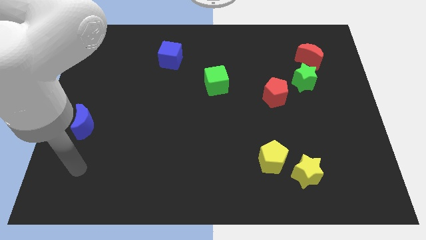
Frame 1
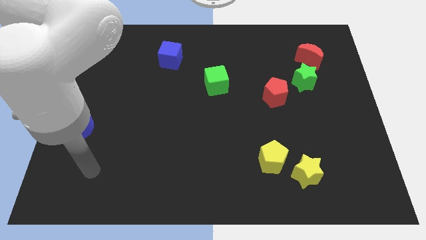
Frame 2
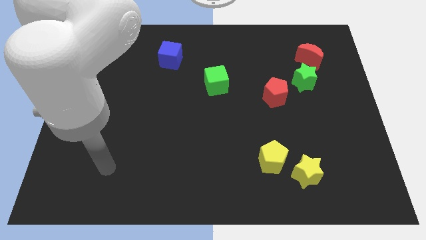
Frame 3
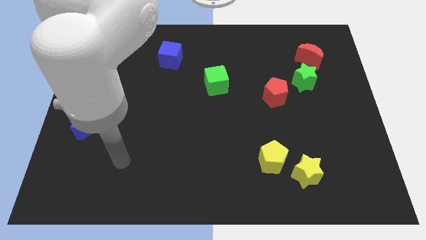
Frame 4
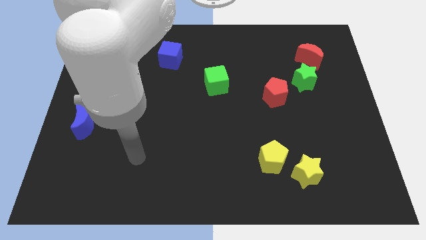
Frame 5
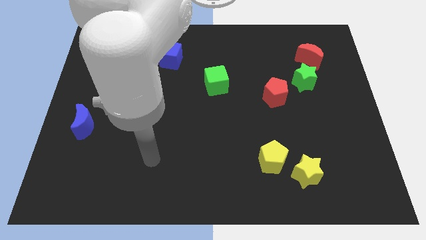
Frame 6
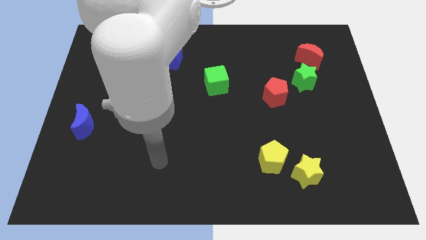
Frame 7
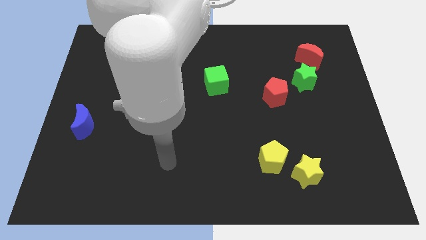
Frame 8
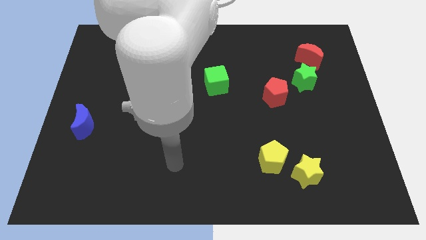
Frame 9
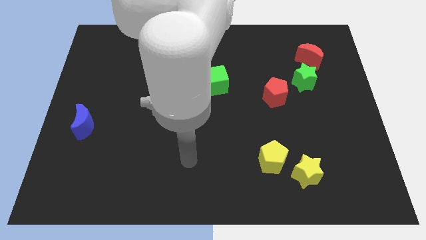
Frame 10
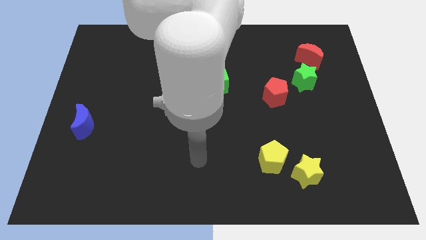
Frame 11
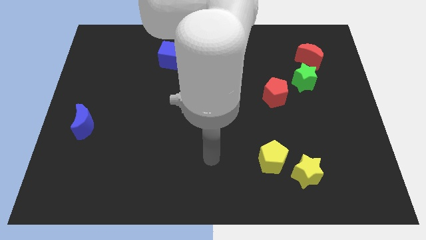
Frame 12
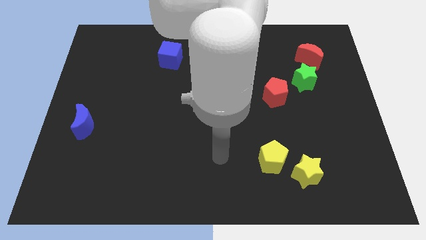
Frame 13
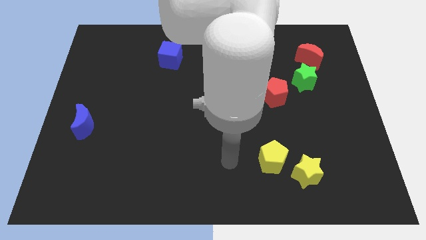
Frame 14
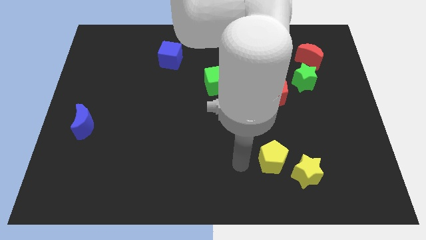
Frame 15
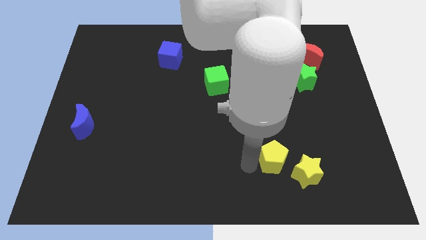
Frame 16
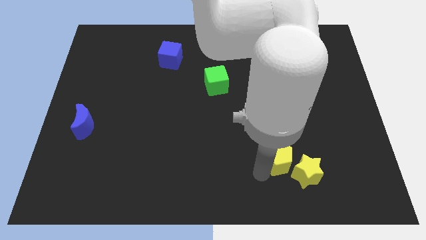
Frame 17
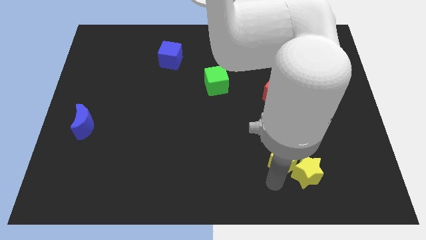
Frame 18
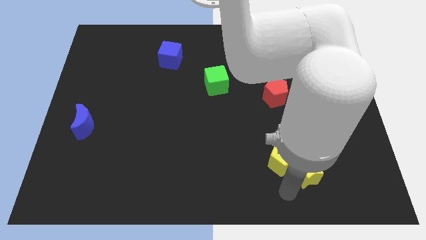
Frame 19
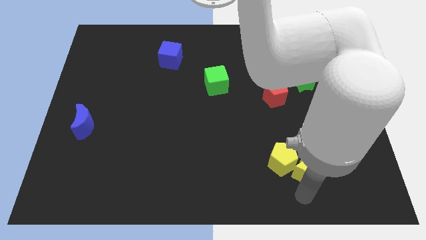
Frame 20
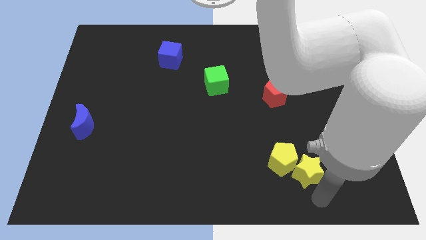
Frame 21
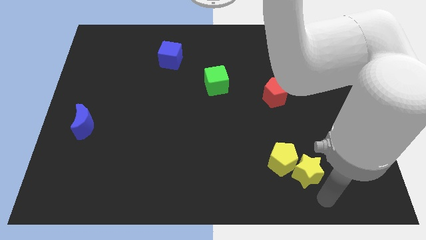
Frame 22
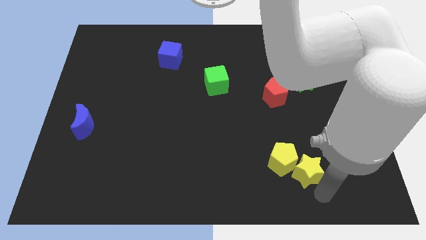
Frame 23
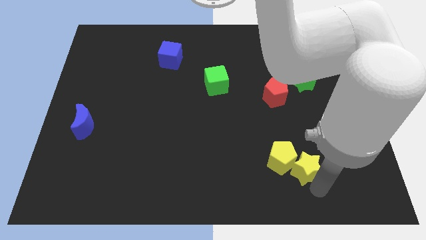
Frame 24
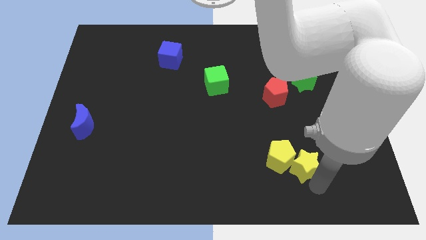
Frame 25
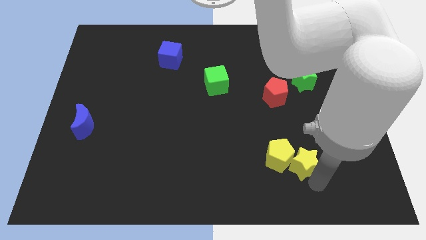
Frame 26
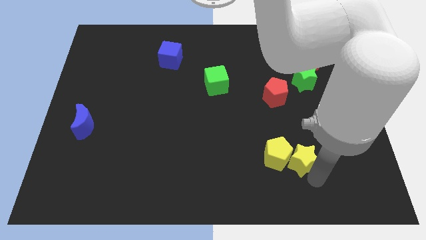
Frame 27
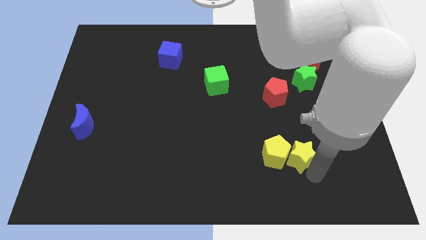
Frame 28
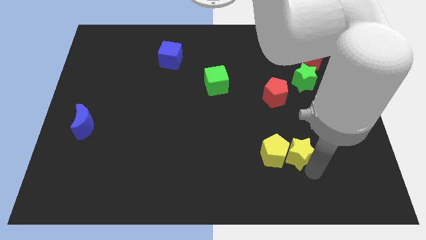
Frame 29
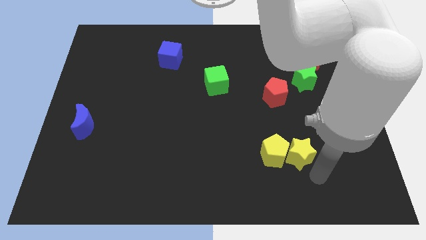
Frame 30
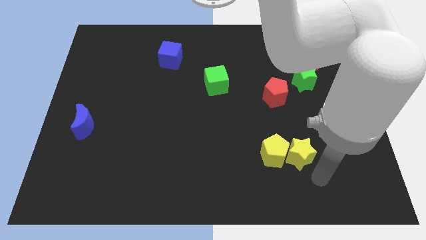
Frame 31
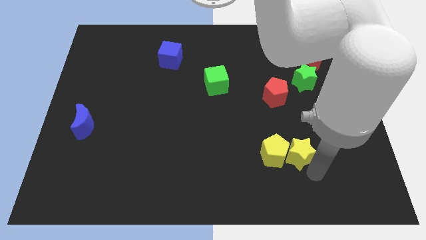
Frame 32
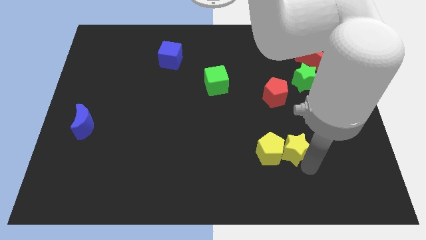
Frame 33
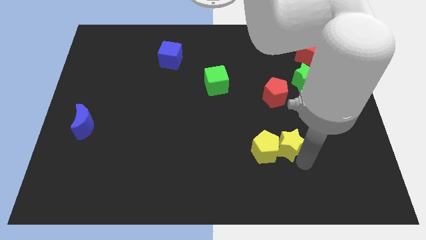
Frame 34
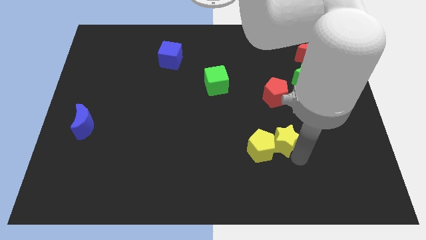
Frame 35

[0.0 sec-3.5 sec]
slide the yellow star up and to the left somewhat

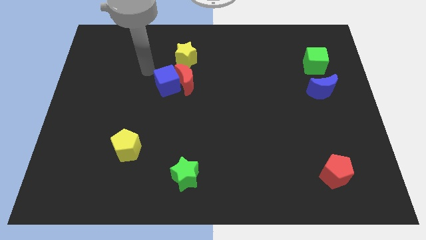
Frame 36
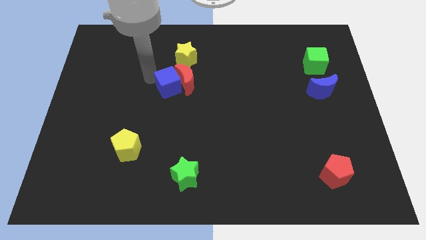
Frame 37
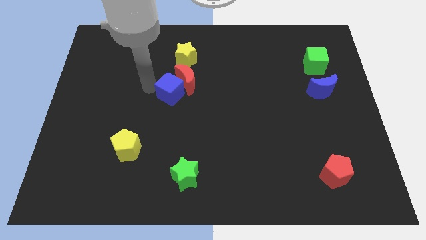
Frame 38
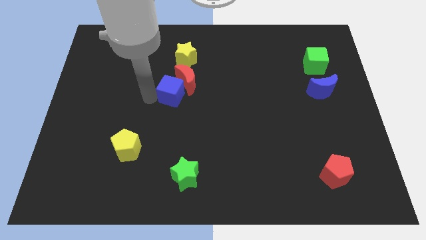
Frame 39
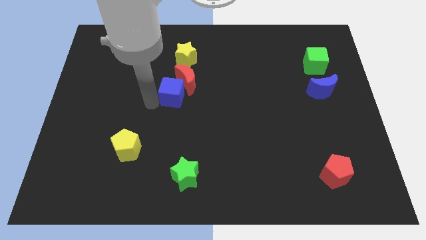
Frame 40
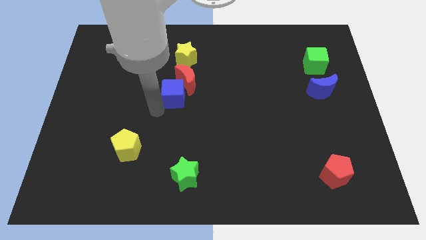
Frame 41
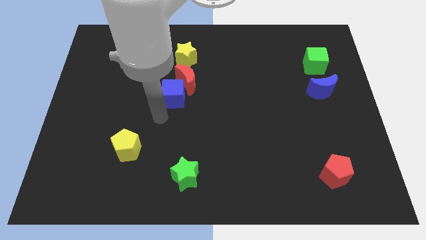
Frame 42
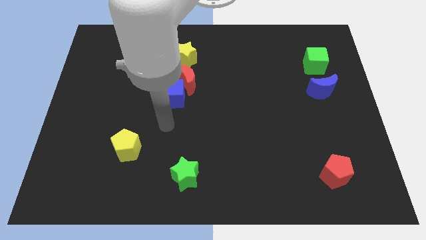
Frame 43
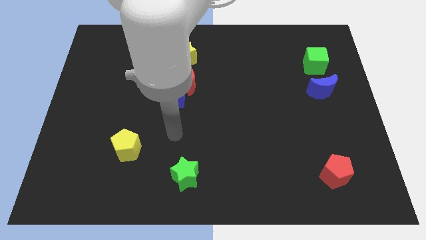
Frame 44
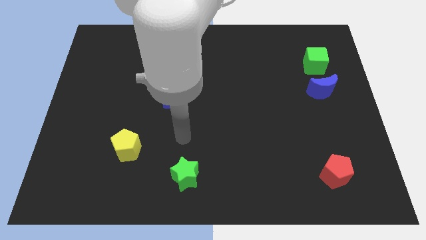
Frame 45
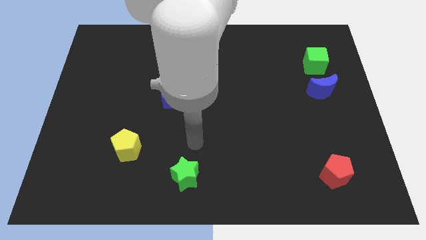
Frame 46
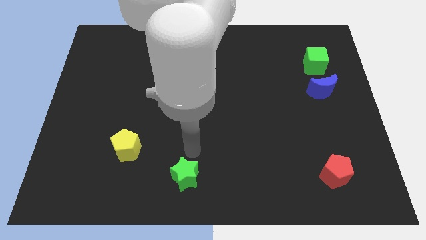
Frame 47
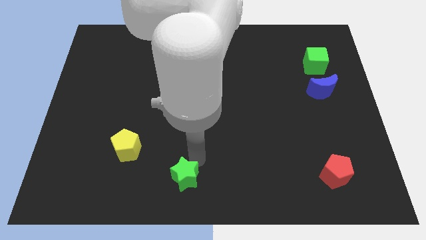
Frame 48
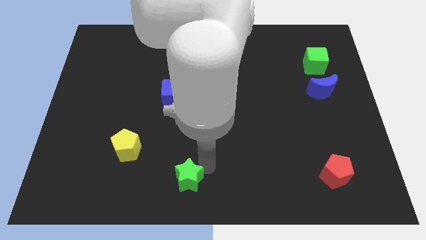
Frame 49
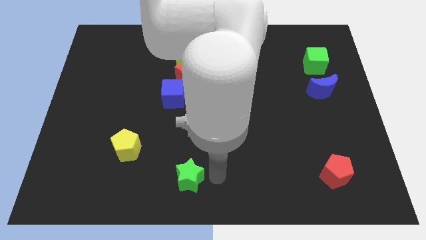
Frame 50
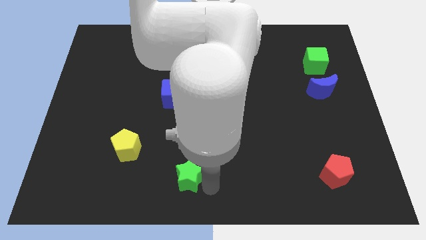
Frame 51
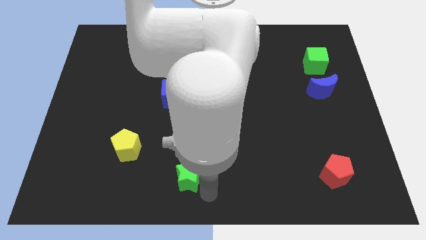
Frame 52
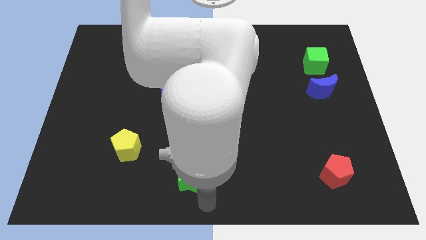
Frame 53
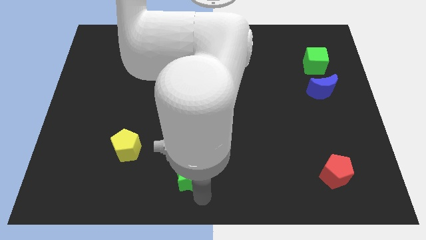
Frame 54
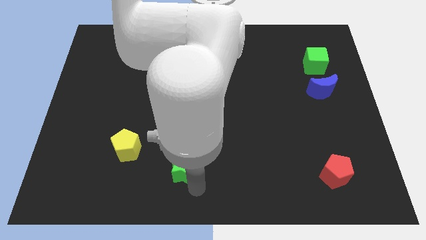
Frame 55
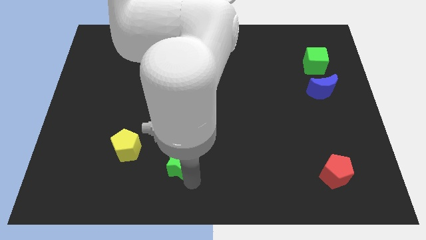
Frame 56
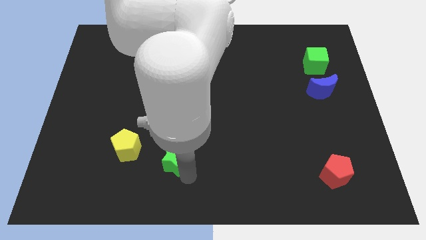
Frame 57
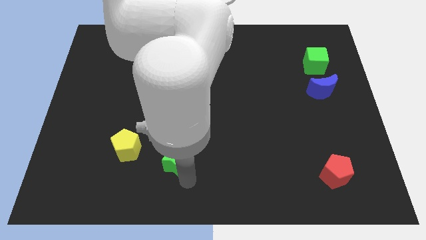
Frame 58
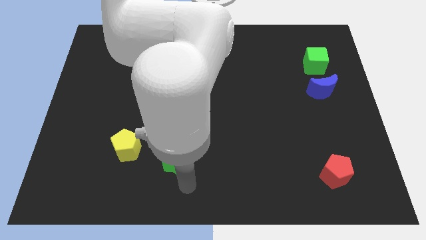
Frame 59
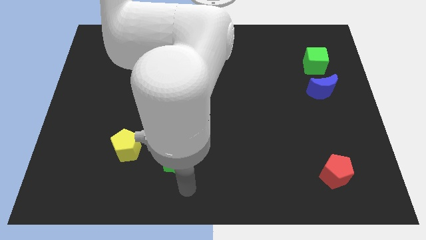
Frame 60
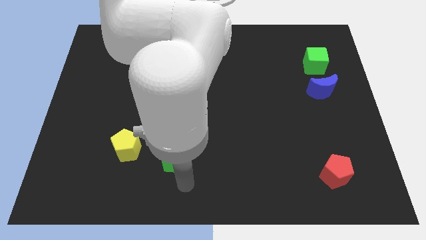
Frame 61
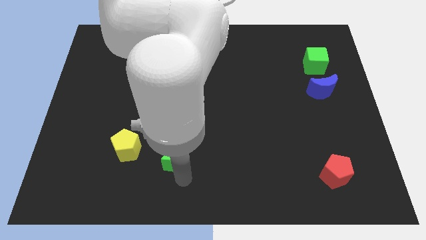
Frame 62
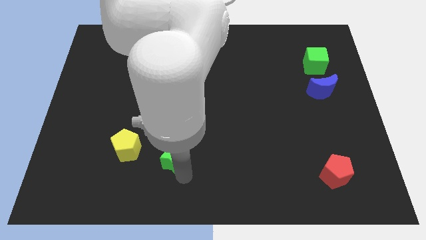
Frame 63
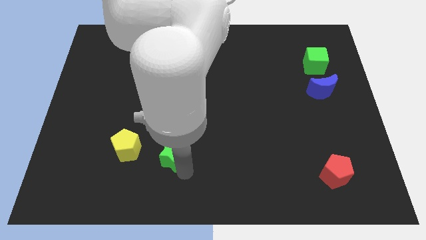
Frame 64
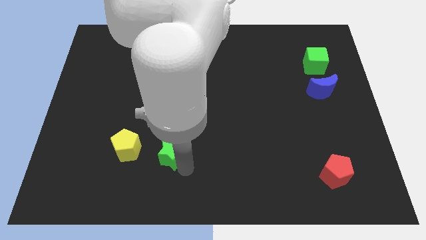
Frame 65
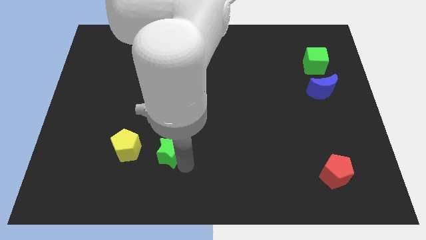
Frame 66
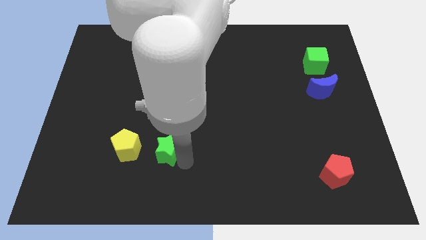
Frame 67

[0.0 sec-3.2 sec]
move the green star slightly up and then left

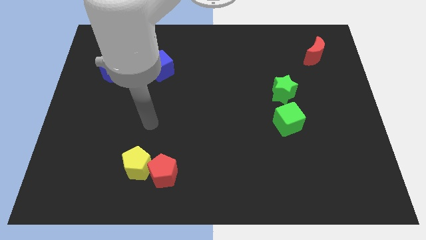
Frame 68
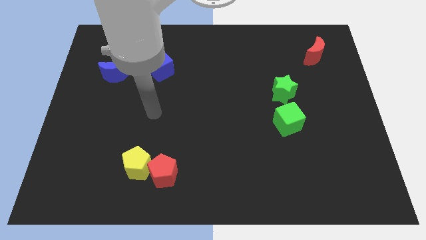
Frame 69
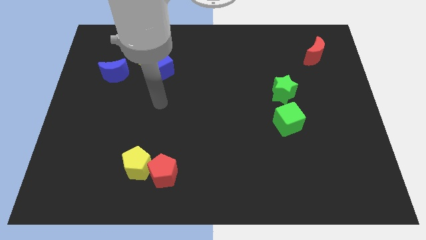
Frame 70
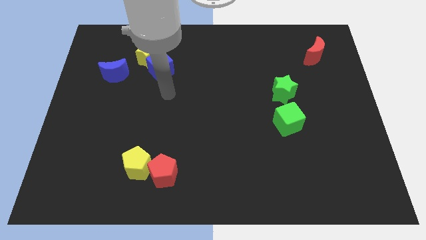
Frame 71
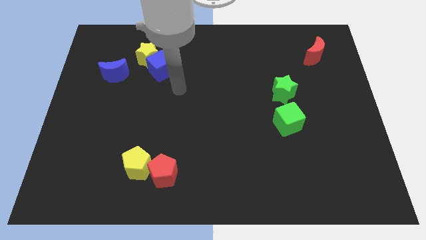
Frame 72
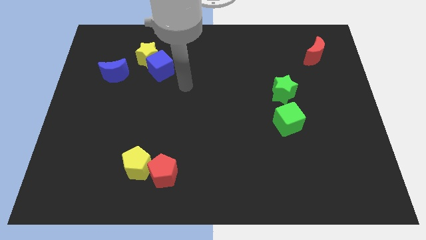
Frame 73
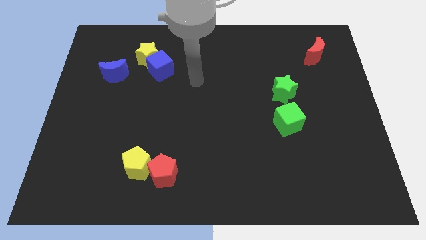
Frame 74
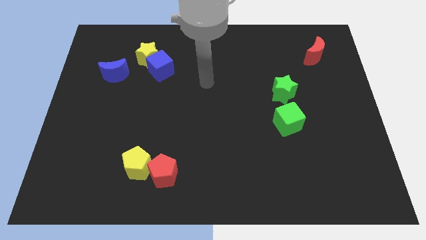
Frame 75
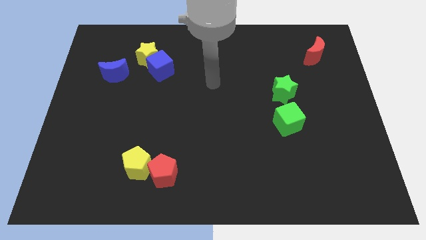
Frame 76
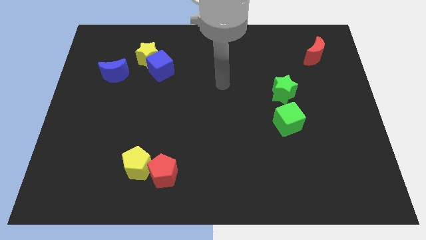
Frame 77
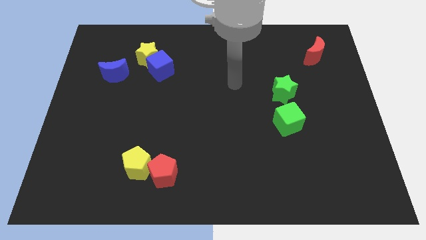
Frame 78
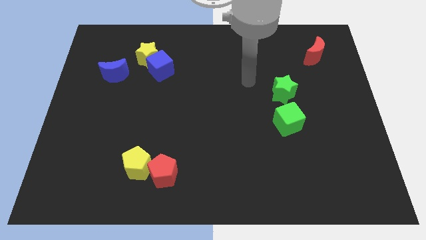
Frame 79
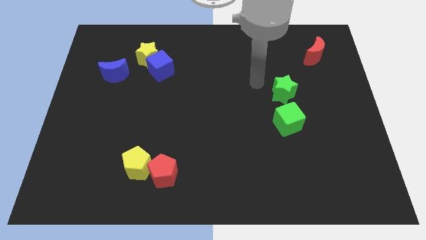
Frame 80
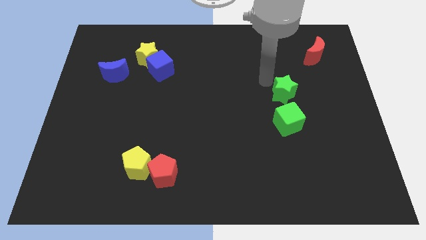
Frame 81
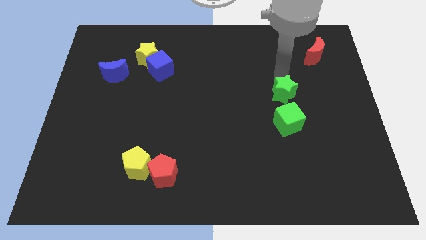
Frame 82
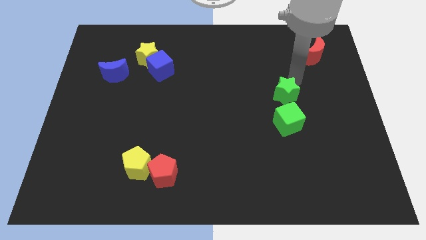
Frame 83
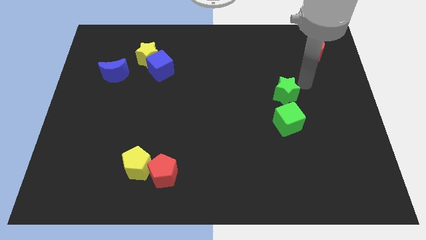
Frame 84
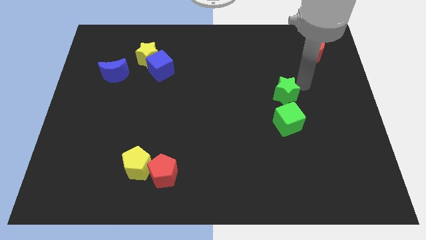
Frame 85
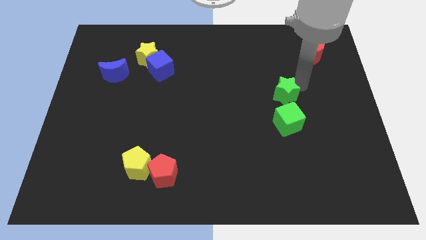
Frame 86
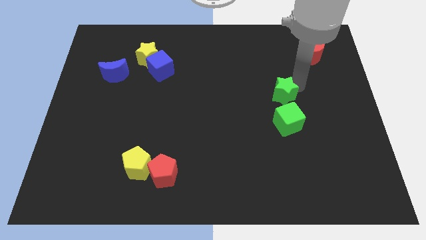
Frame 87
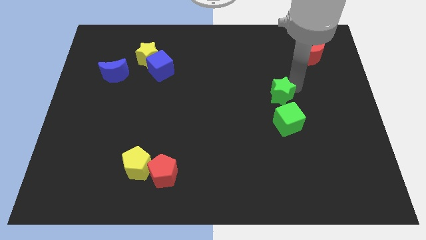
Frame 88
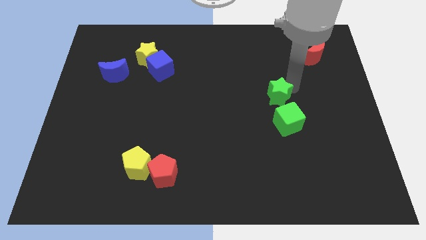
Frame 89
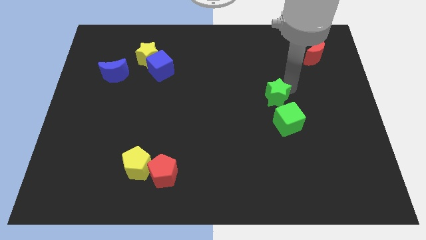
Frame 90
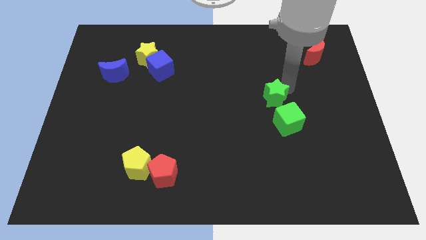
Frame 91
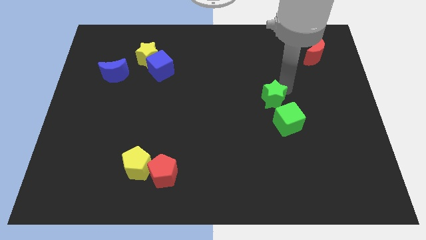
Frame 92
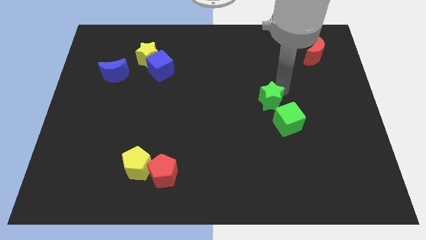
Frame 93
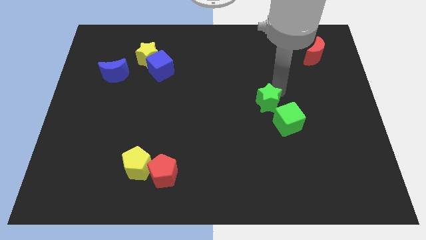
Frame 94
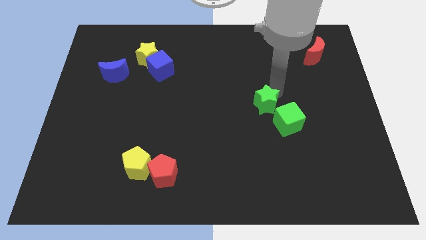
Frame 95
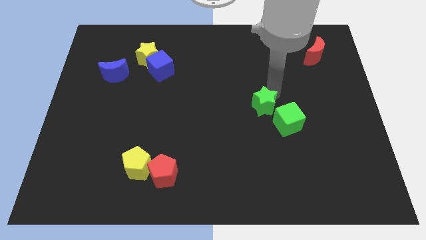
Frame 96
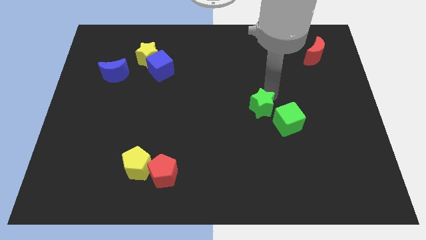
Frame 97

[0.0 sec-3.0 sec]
slightly push the green star diagonally downwards and left
